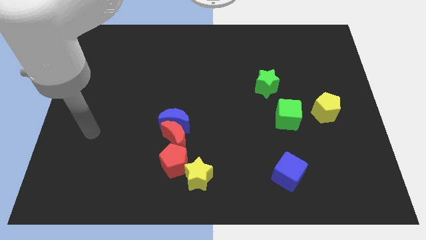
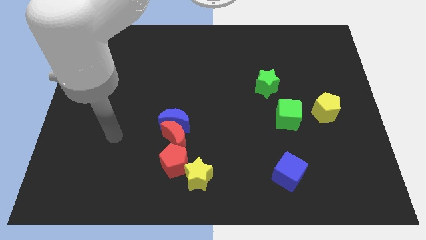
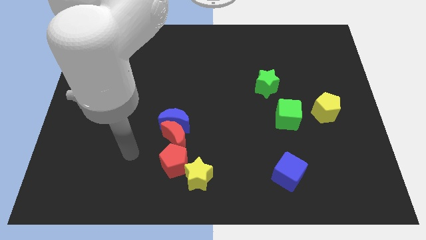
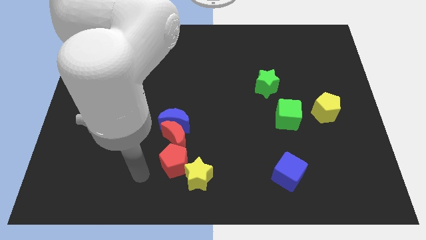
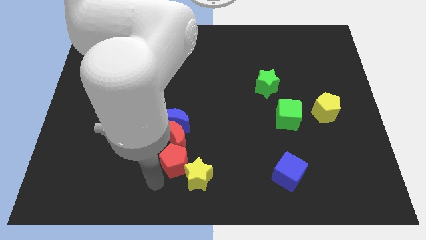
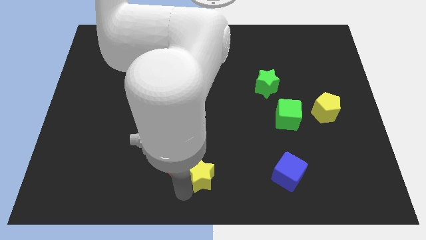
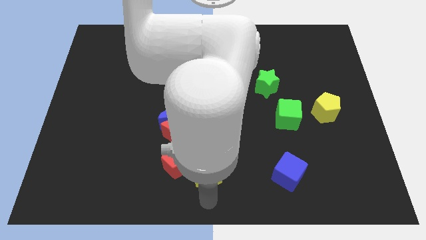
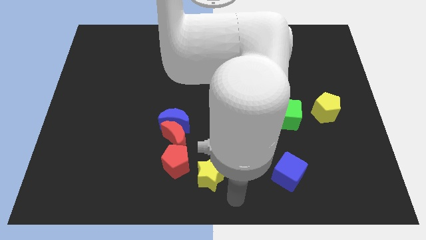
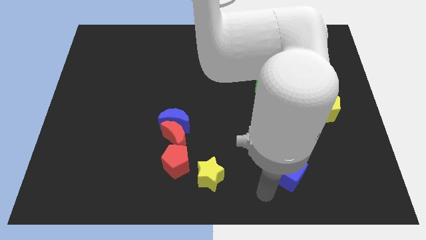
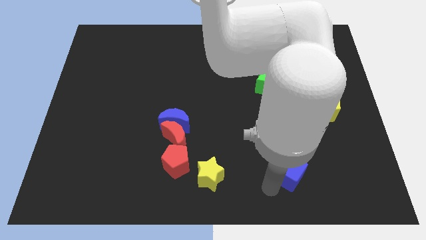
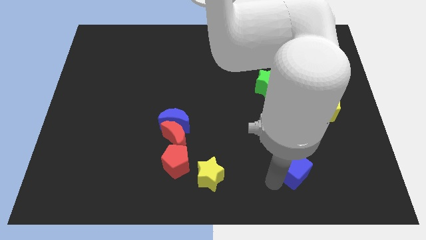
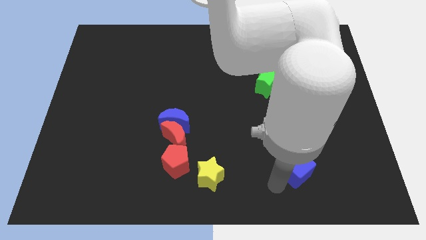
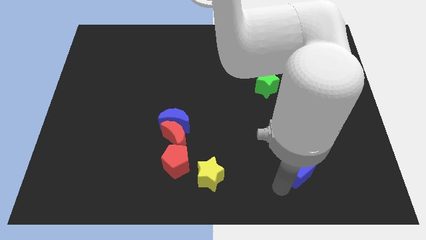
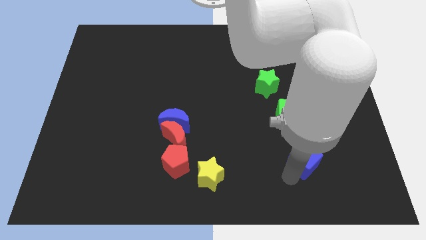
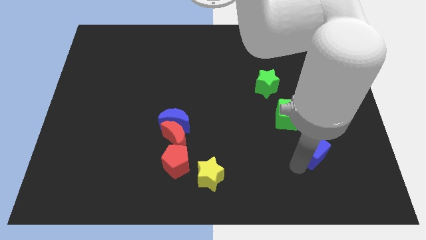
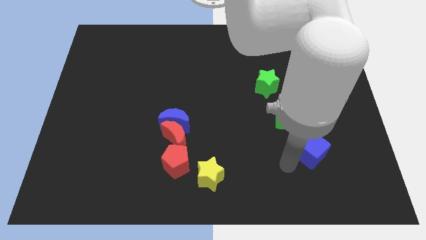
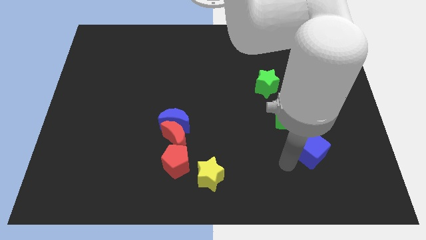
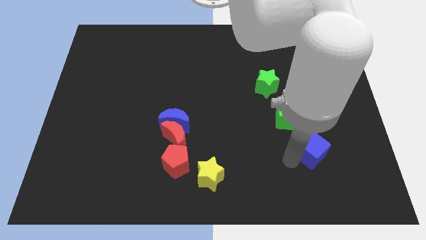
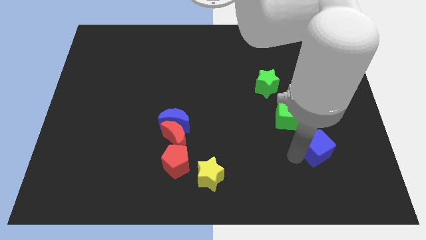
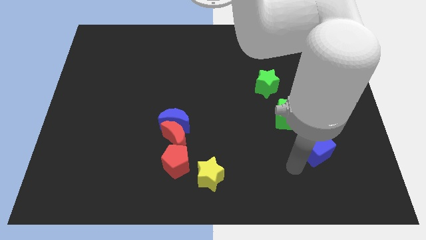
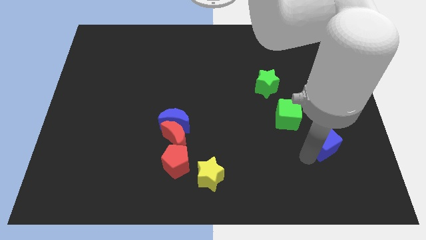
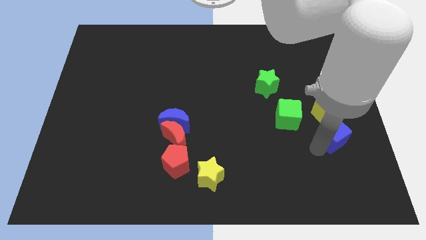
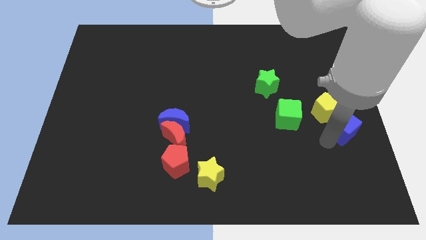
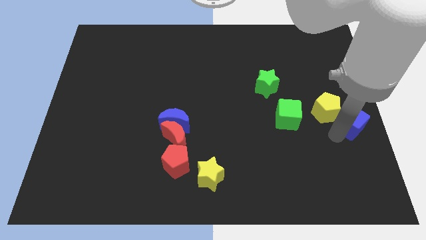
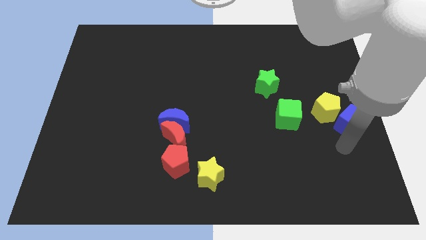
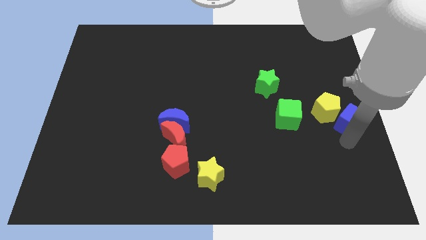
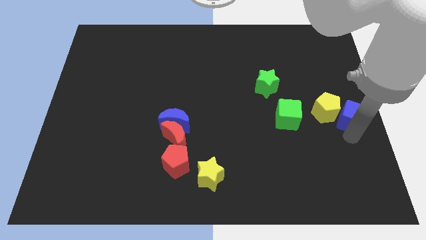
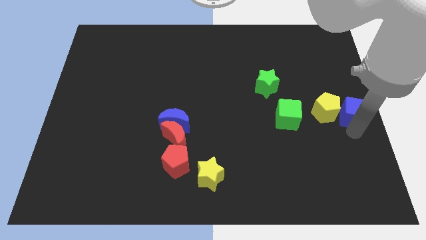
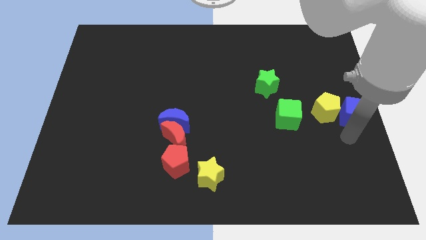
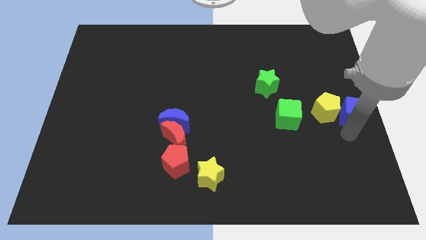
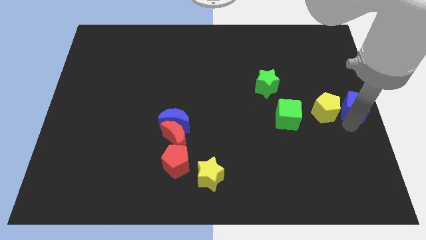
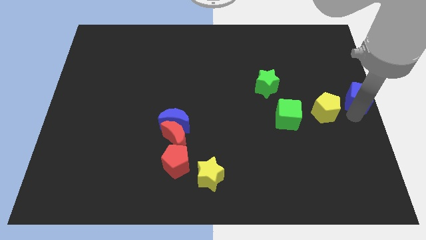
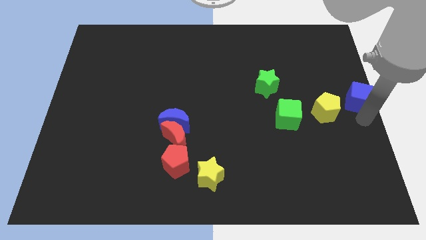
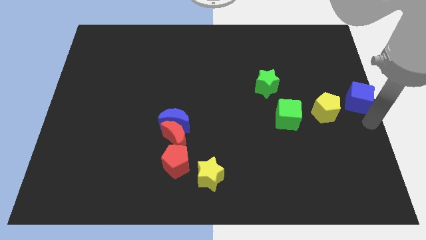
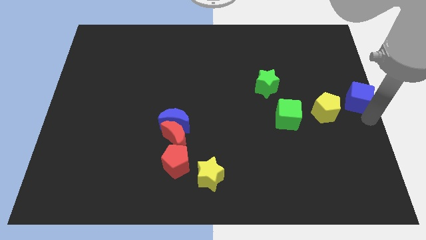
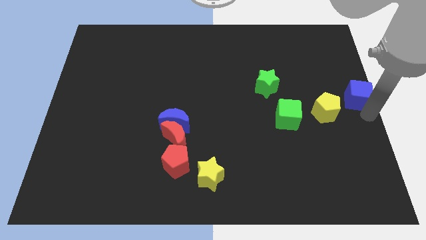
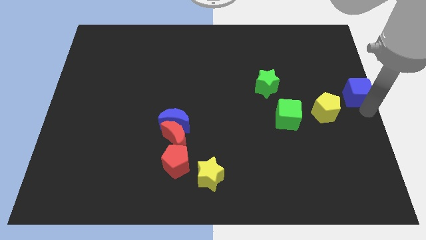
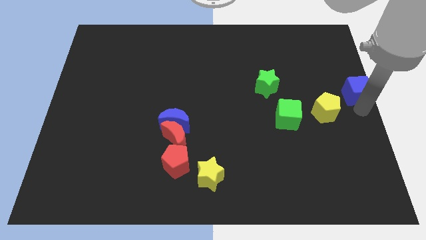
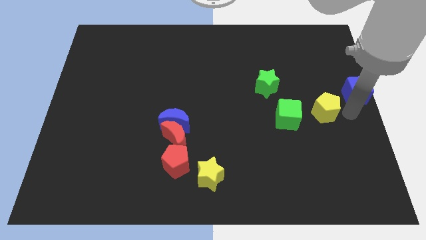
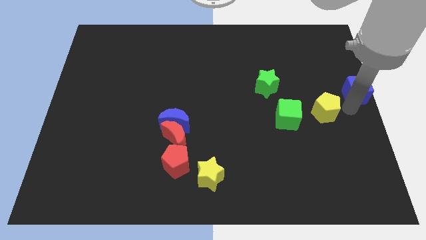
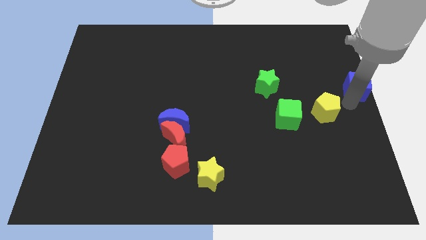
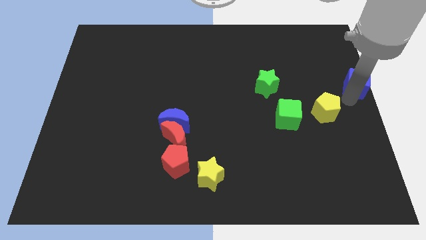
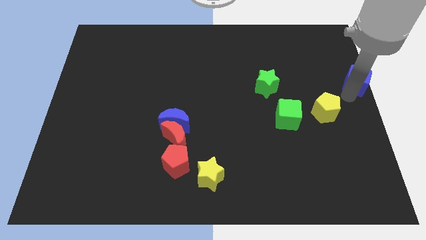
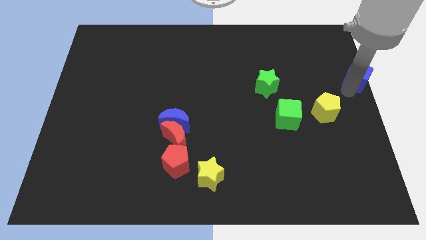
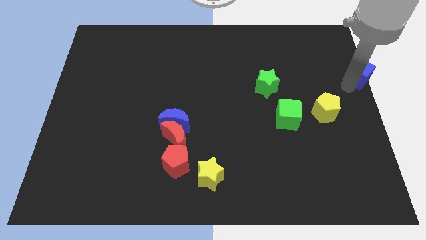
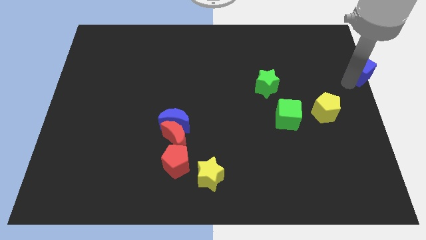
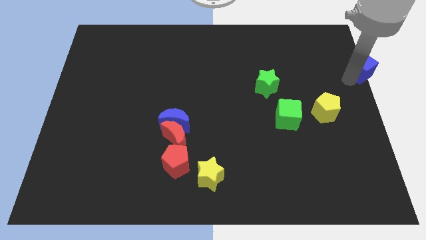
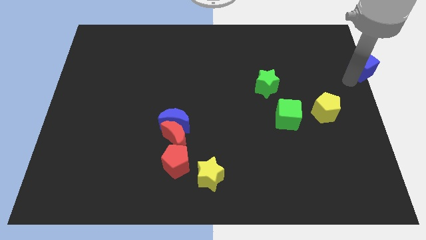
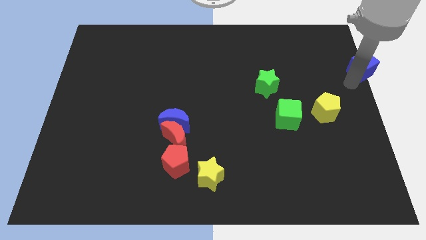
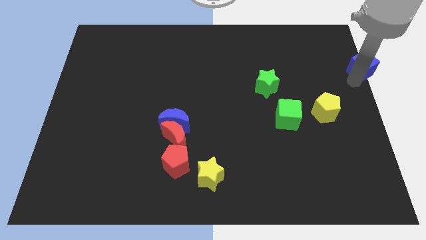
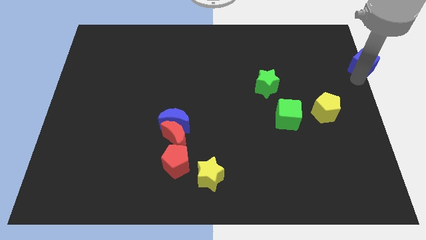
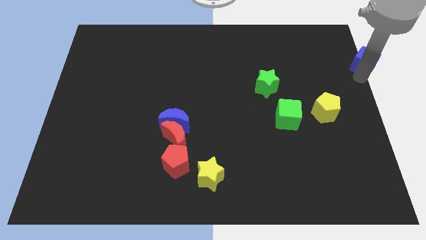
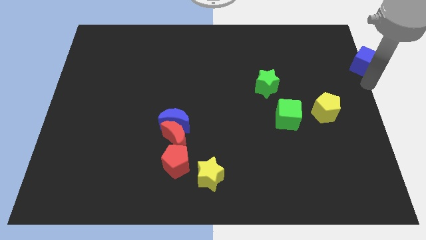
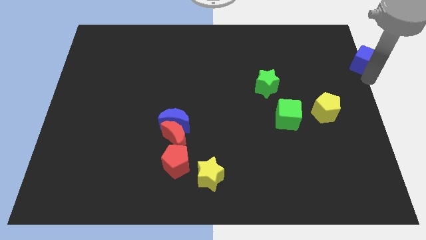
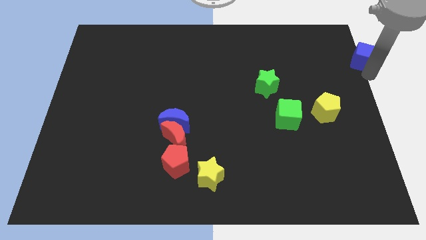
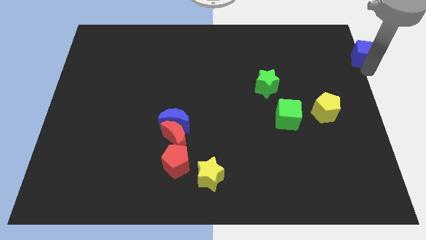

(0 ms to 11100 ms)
put the blue cube to the top right
